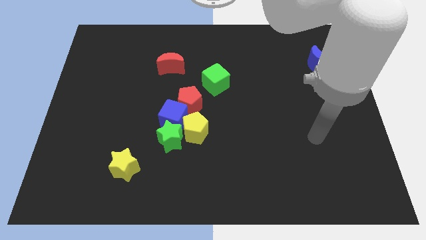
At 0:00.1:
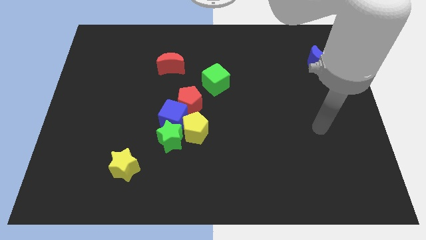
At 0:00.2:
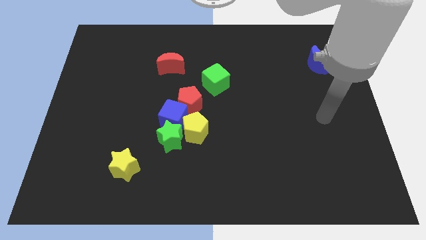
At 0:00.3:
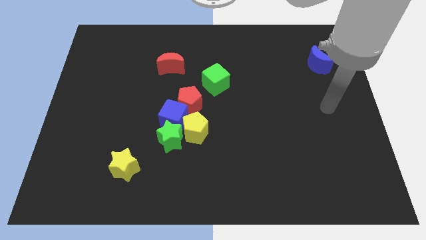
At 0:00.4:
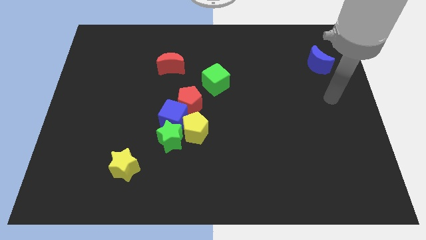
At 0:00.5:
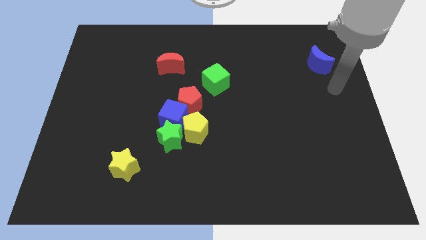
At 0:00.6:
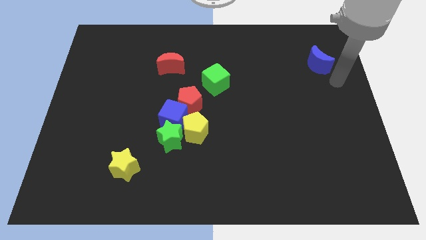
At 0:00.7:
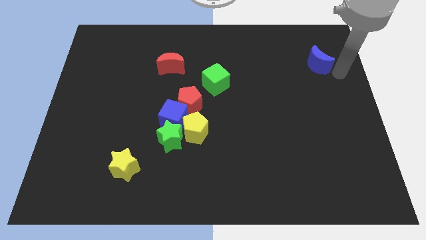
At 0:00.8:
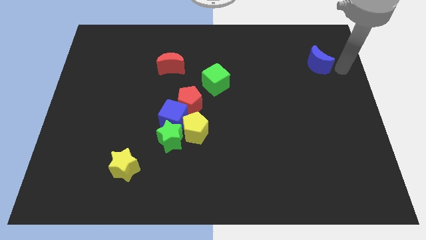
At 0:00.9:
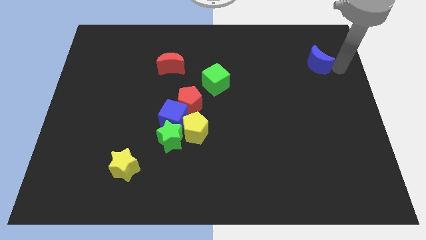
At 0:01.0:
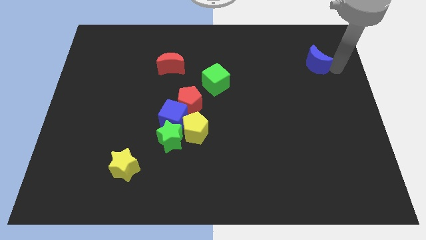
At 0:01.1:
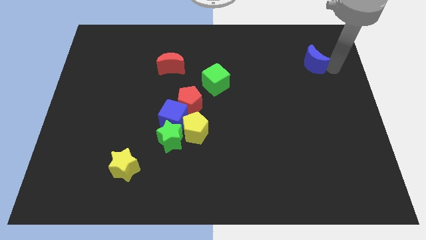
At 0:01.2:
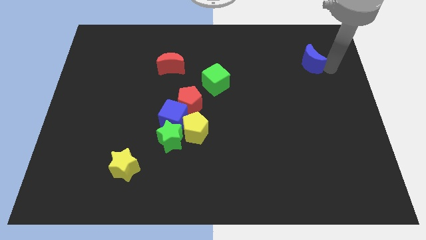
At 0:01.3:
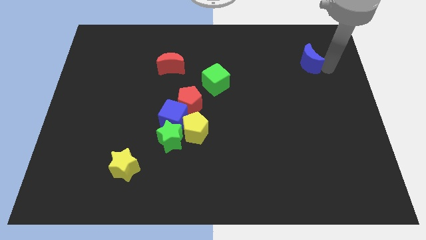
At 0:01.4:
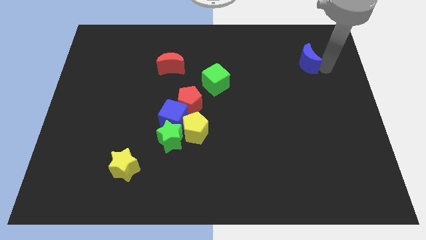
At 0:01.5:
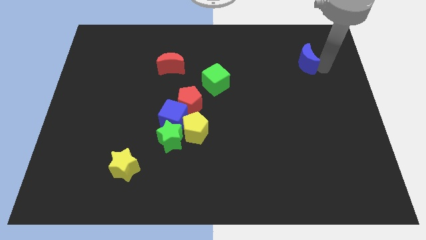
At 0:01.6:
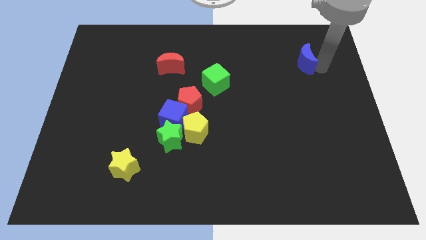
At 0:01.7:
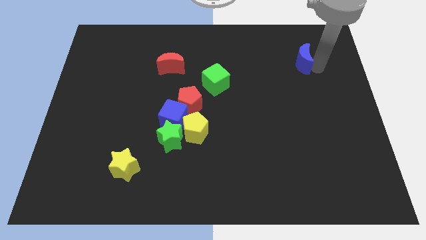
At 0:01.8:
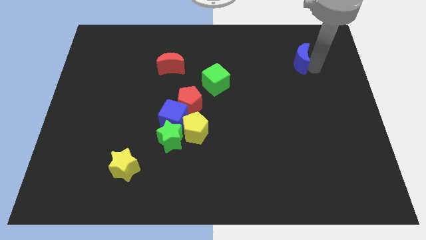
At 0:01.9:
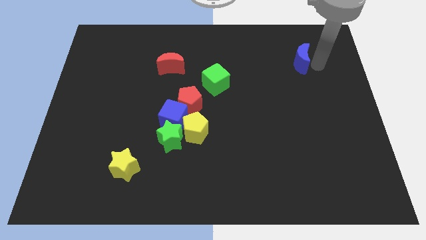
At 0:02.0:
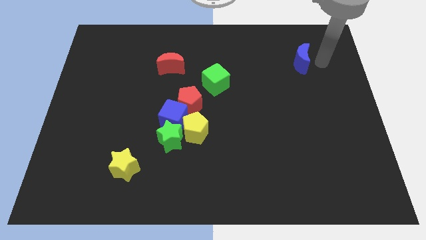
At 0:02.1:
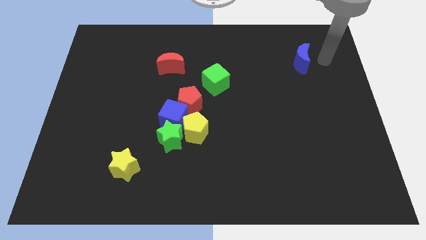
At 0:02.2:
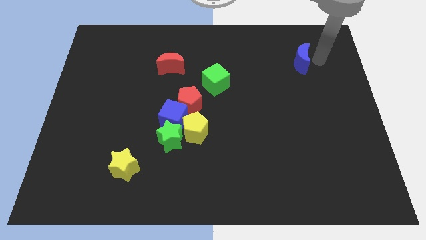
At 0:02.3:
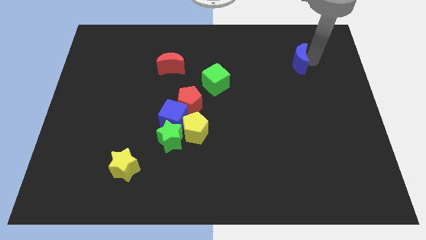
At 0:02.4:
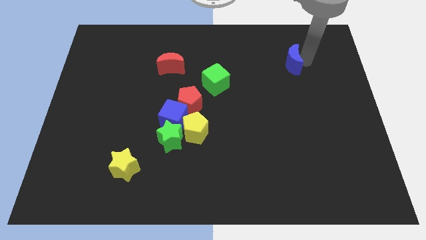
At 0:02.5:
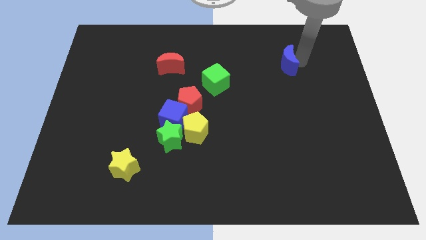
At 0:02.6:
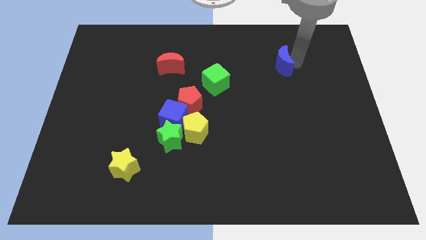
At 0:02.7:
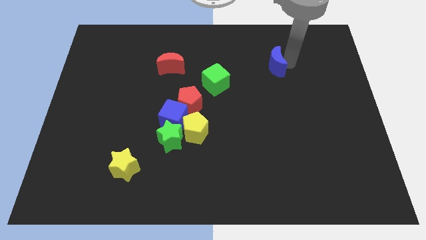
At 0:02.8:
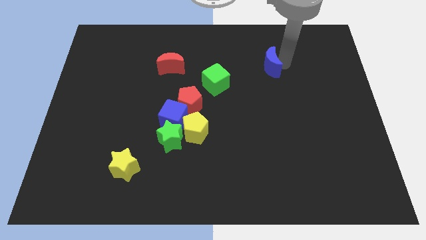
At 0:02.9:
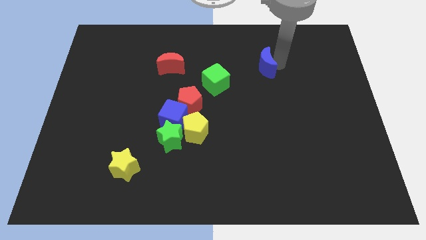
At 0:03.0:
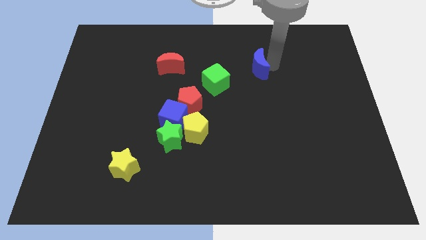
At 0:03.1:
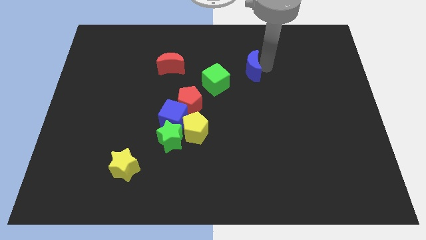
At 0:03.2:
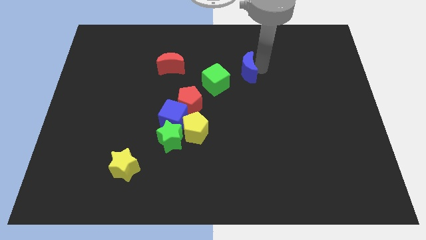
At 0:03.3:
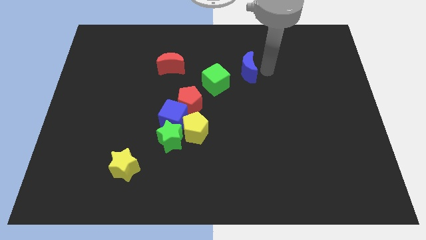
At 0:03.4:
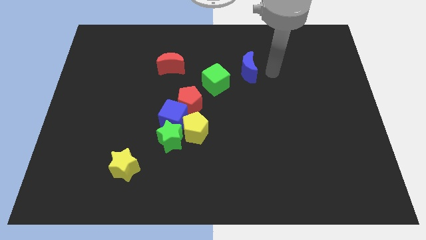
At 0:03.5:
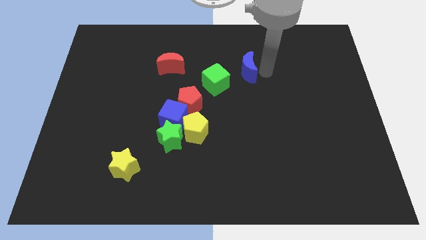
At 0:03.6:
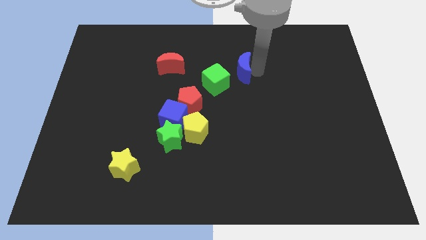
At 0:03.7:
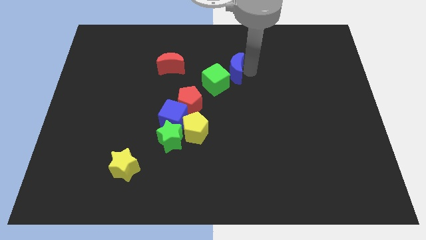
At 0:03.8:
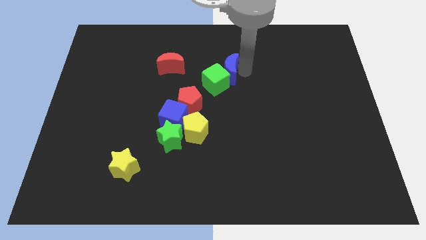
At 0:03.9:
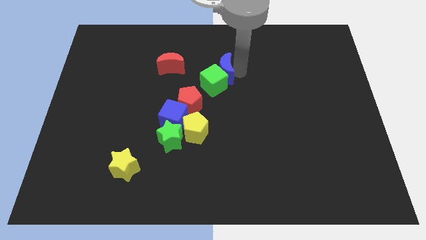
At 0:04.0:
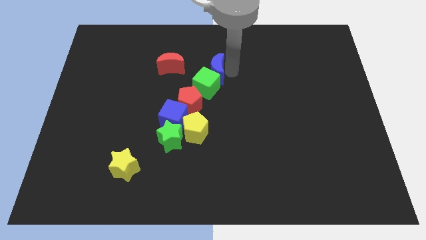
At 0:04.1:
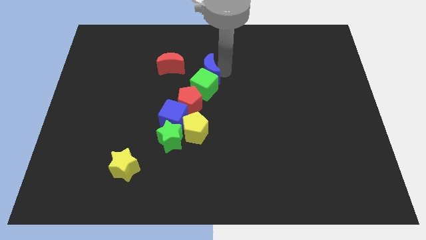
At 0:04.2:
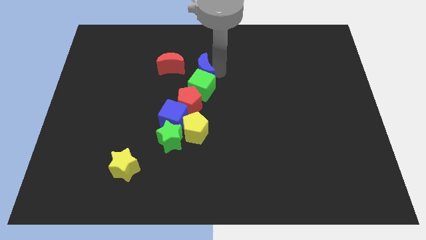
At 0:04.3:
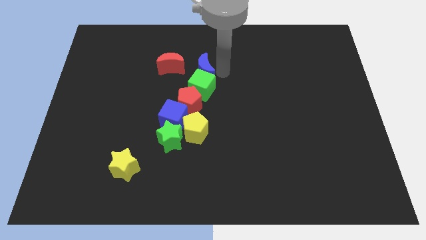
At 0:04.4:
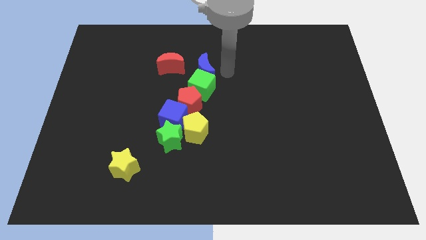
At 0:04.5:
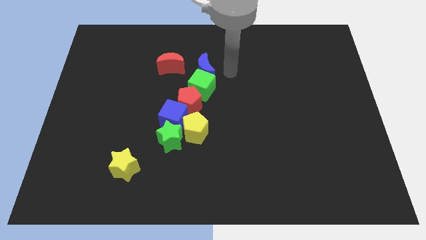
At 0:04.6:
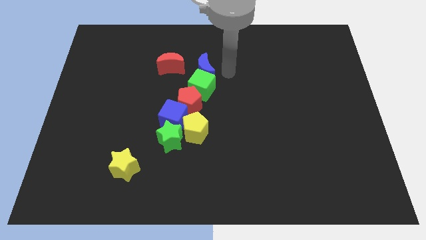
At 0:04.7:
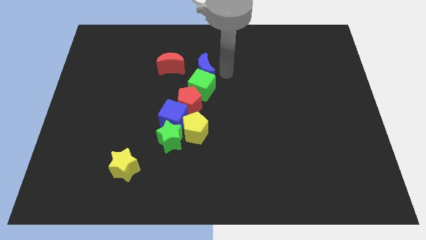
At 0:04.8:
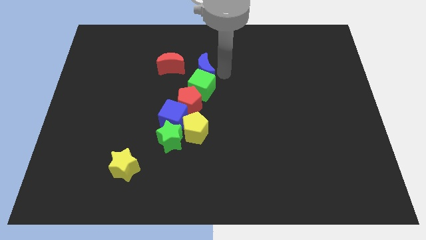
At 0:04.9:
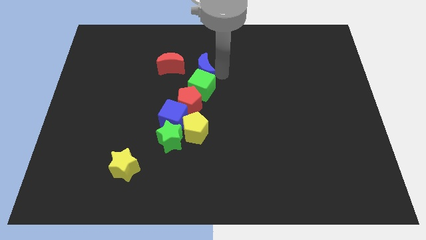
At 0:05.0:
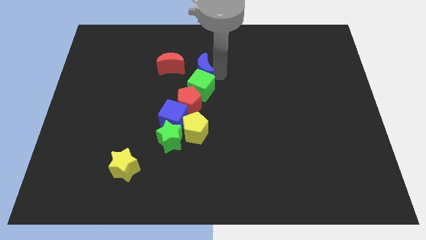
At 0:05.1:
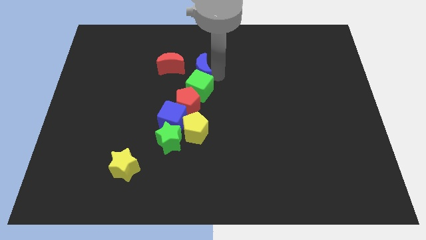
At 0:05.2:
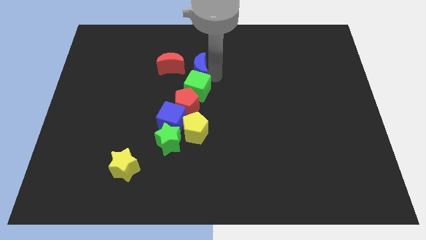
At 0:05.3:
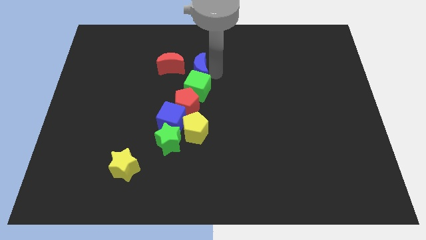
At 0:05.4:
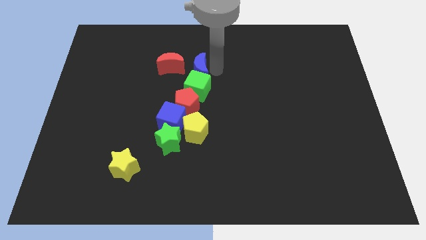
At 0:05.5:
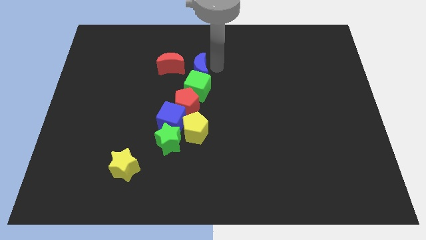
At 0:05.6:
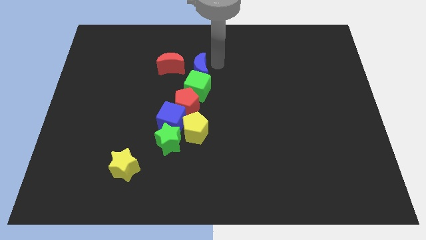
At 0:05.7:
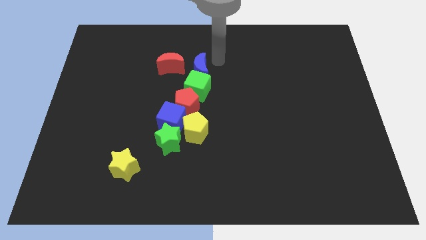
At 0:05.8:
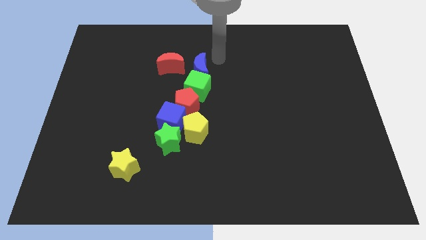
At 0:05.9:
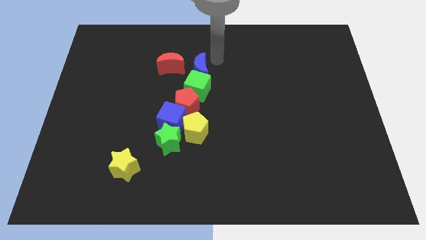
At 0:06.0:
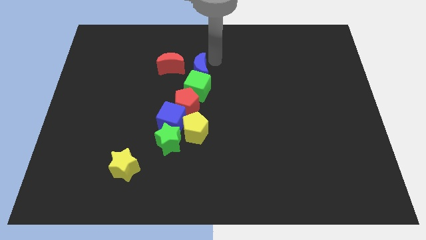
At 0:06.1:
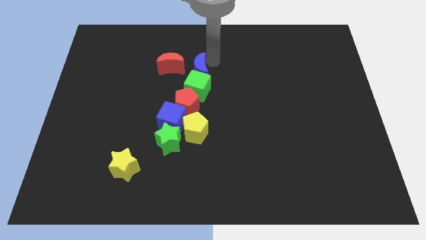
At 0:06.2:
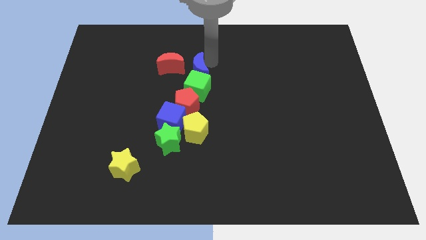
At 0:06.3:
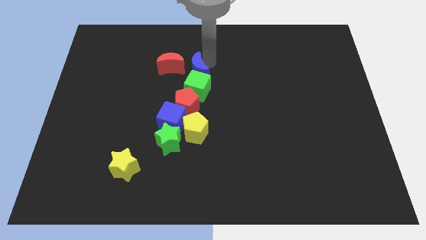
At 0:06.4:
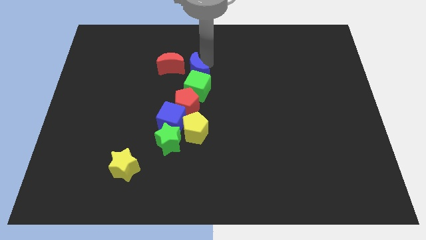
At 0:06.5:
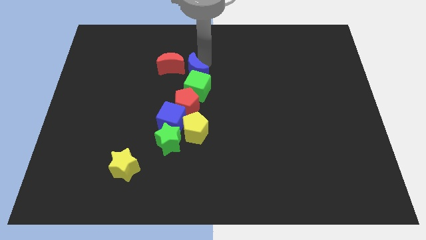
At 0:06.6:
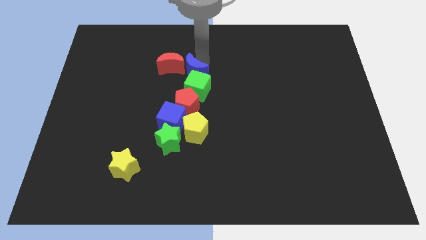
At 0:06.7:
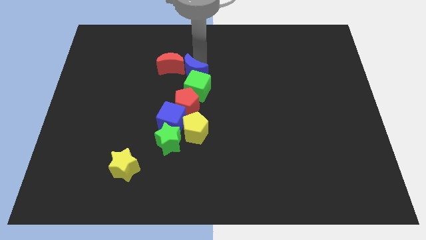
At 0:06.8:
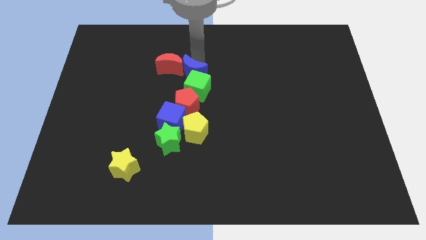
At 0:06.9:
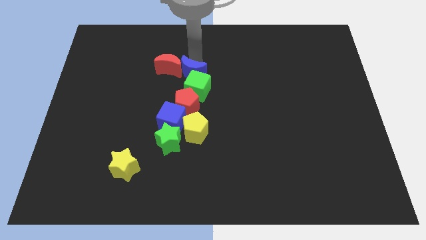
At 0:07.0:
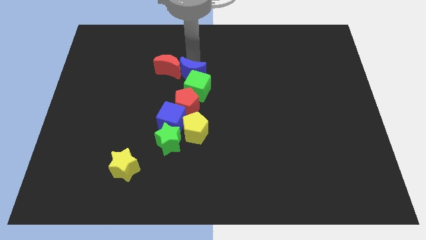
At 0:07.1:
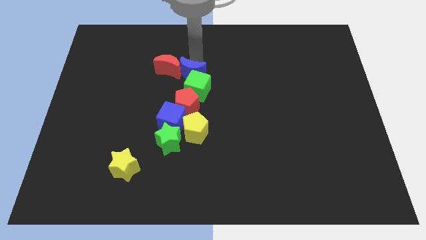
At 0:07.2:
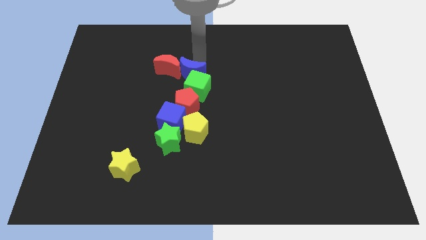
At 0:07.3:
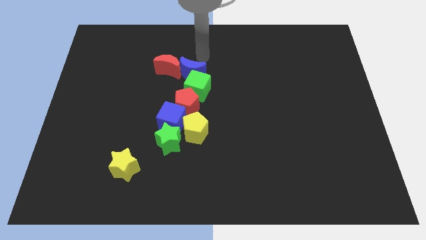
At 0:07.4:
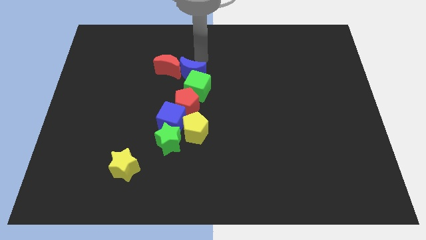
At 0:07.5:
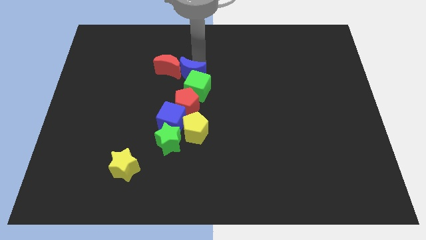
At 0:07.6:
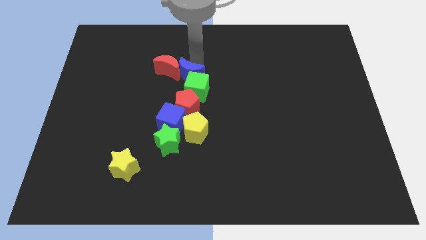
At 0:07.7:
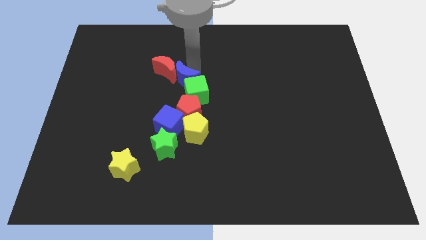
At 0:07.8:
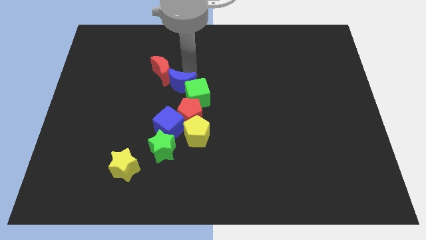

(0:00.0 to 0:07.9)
move the blue moon to the bottom side of the red moon
